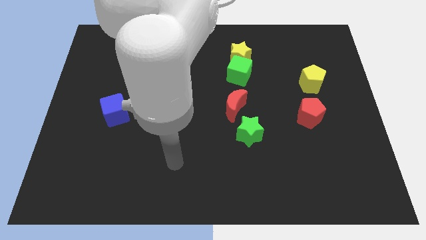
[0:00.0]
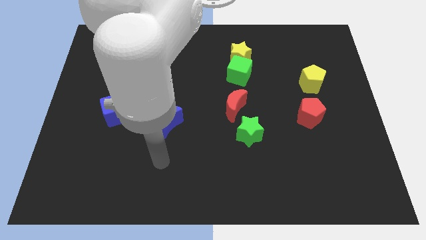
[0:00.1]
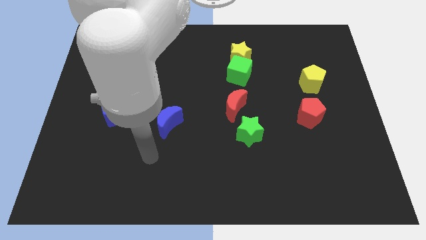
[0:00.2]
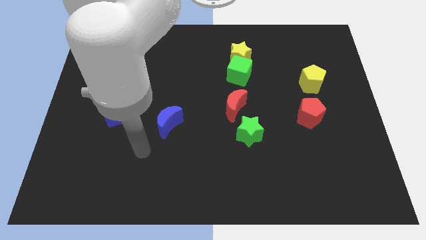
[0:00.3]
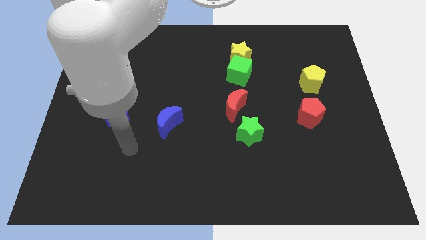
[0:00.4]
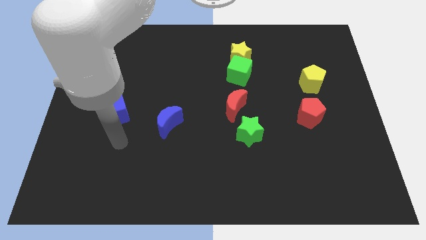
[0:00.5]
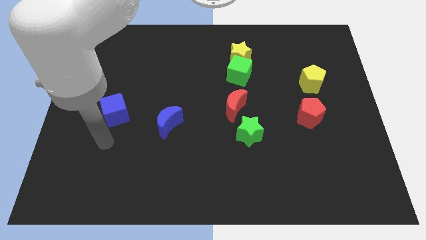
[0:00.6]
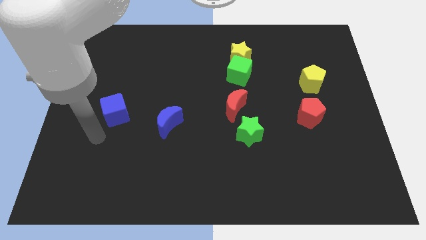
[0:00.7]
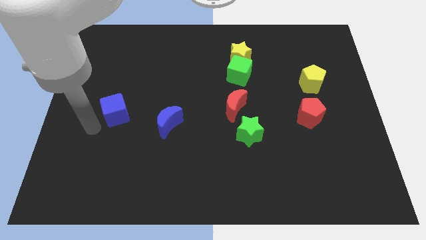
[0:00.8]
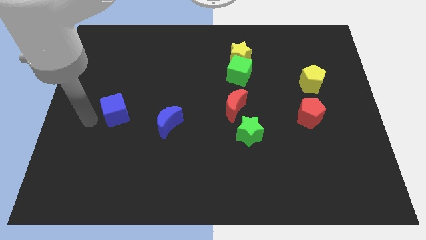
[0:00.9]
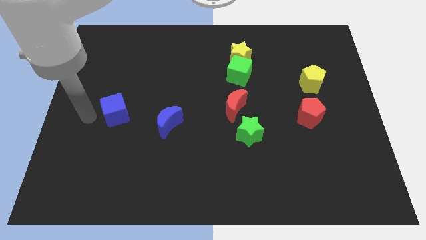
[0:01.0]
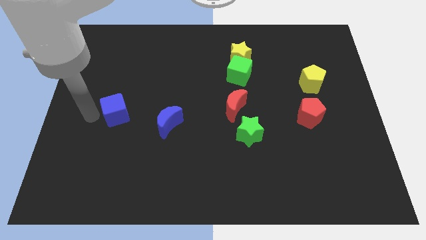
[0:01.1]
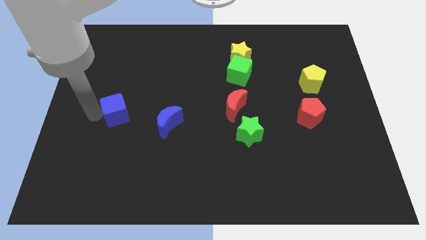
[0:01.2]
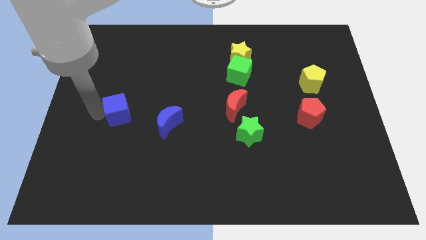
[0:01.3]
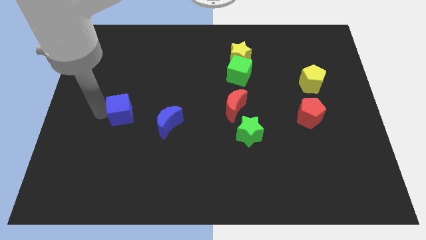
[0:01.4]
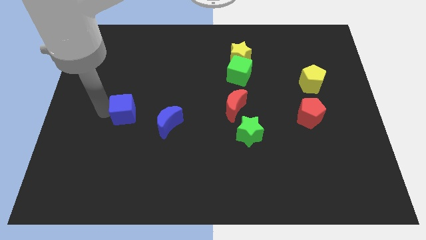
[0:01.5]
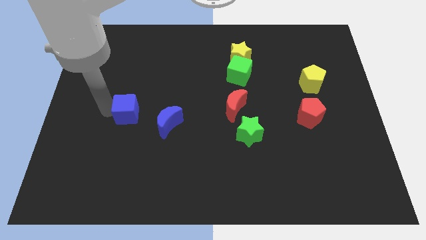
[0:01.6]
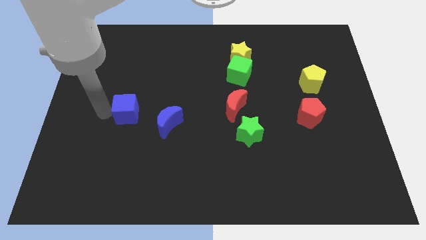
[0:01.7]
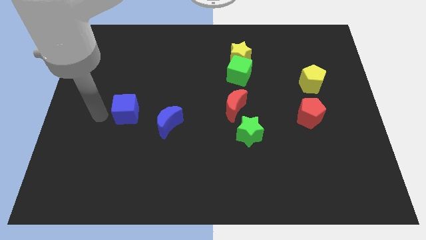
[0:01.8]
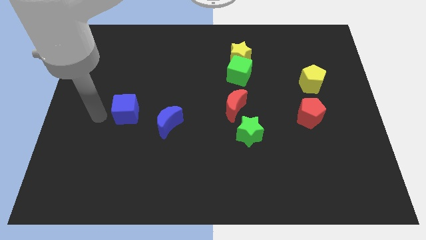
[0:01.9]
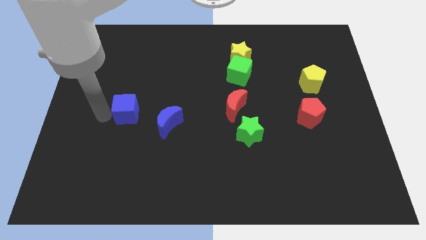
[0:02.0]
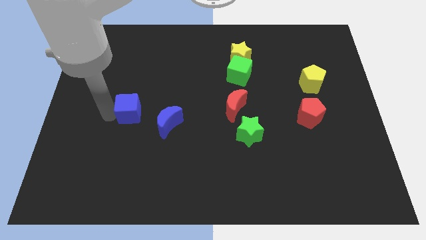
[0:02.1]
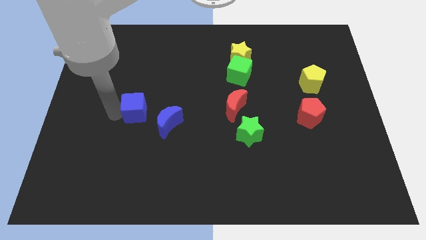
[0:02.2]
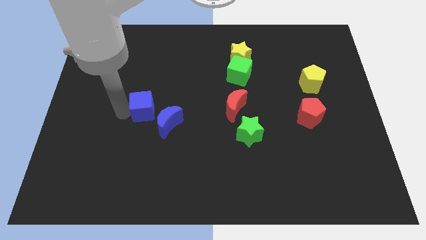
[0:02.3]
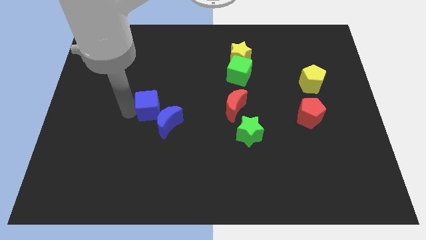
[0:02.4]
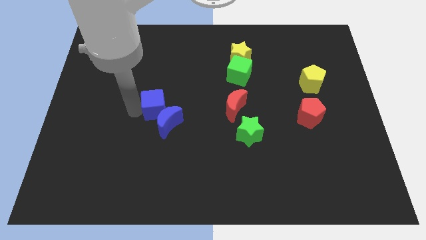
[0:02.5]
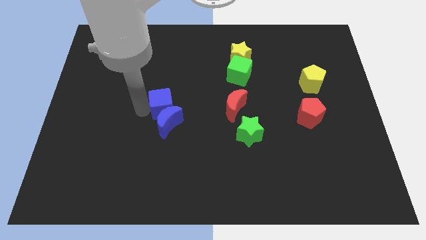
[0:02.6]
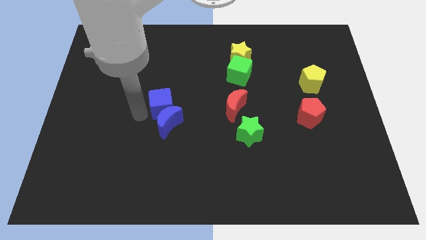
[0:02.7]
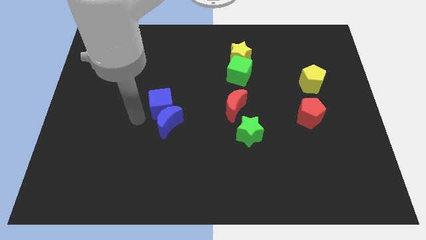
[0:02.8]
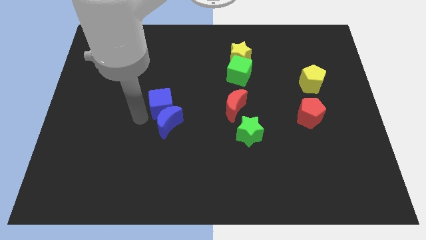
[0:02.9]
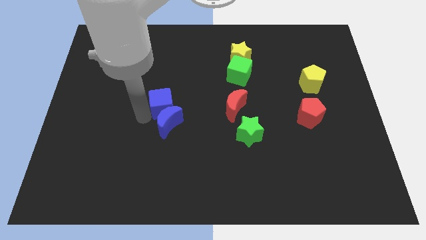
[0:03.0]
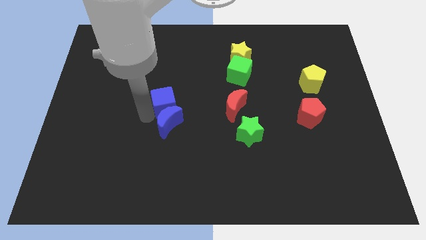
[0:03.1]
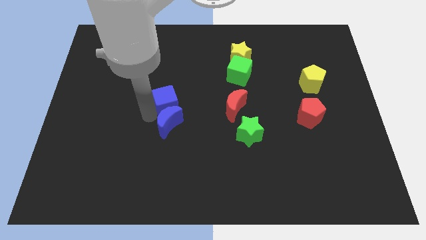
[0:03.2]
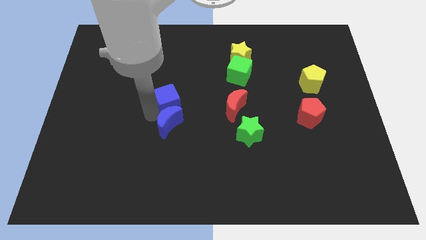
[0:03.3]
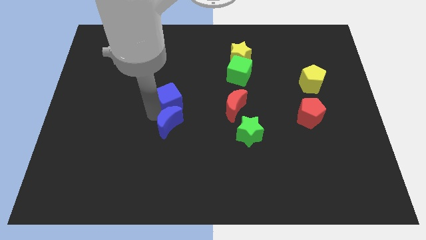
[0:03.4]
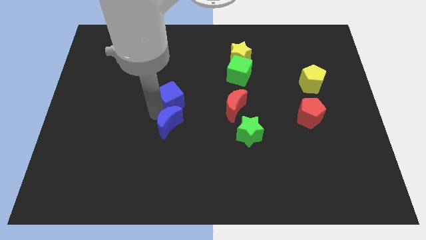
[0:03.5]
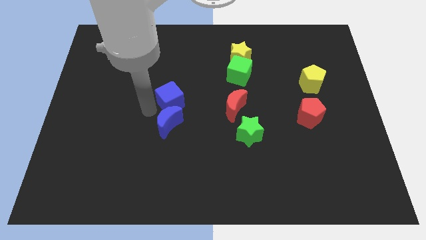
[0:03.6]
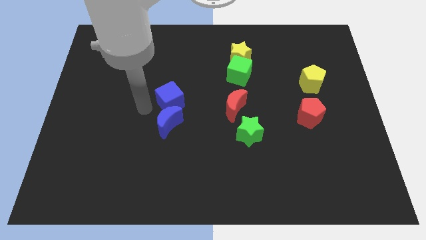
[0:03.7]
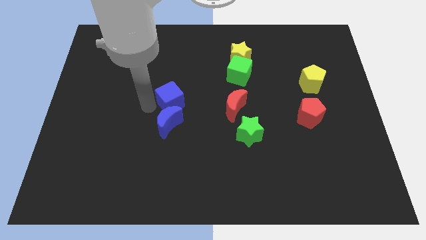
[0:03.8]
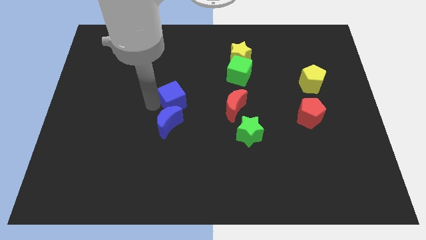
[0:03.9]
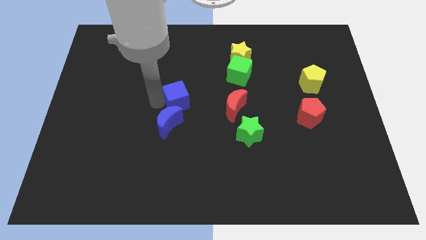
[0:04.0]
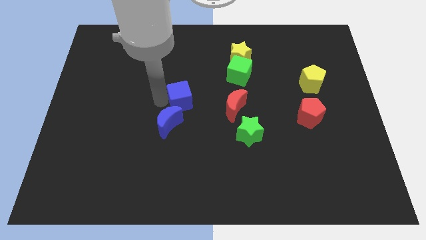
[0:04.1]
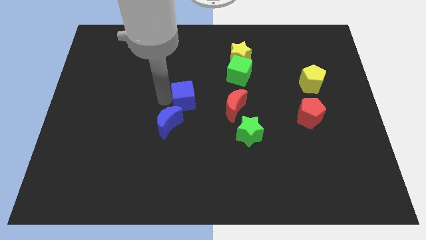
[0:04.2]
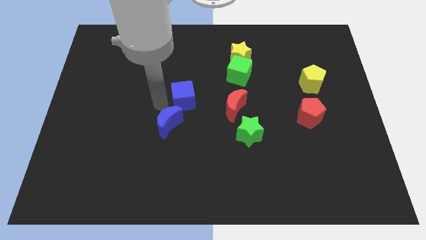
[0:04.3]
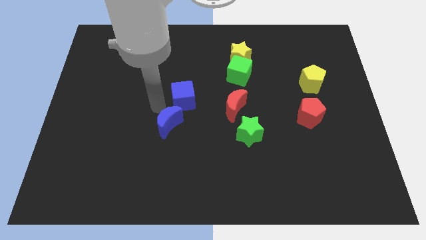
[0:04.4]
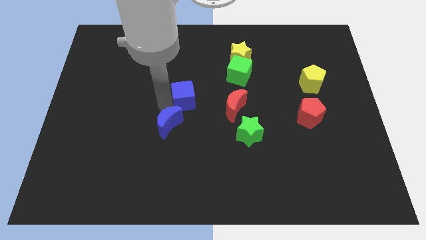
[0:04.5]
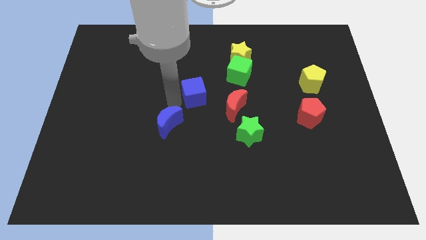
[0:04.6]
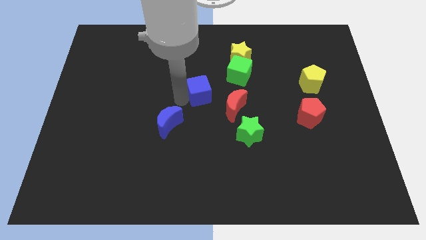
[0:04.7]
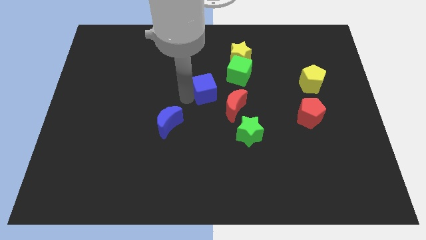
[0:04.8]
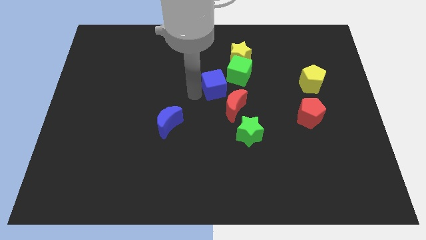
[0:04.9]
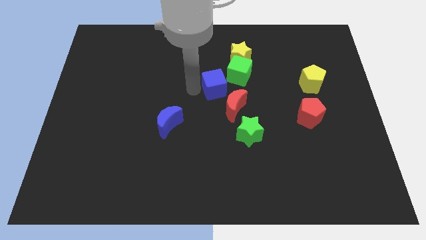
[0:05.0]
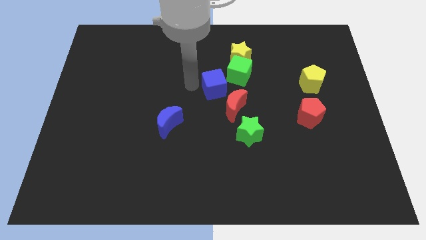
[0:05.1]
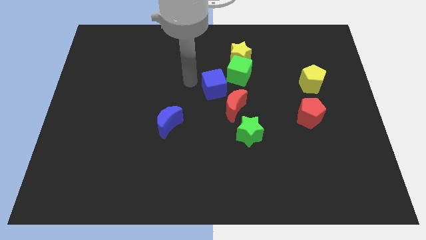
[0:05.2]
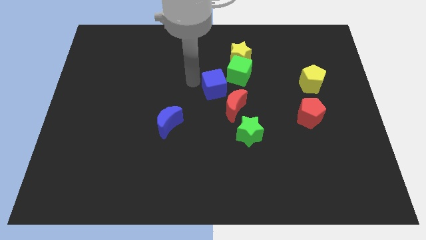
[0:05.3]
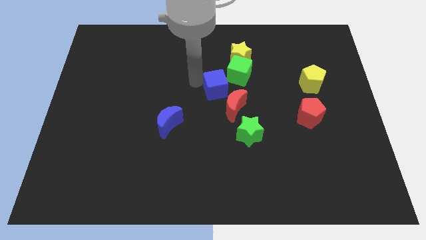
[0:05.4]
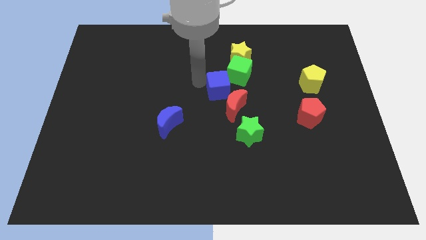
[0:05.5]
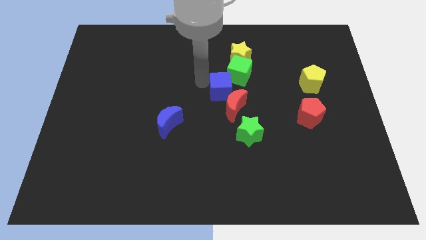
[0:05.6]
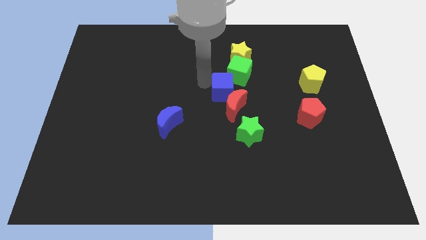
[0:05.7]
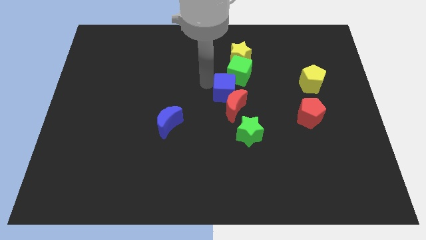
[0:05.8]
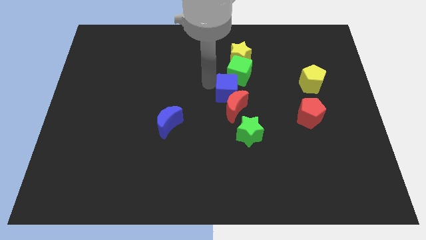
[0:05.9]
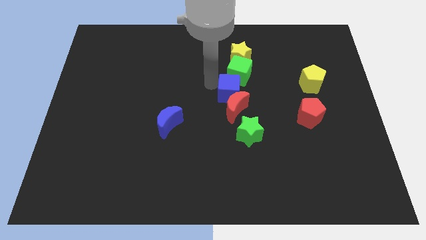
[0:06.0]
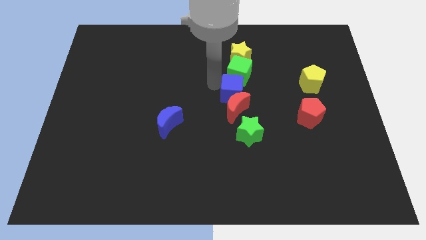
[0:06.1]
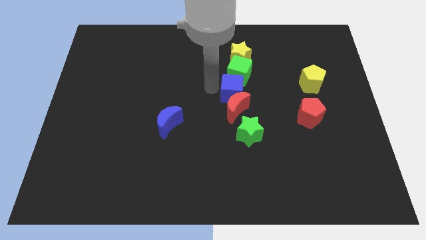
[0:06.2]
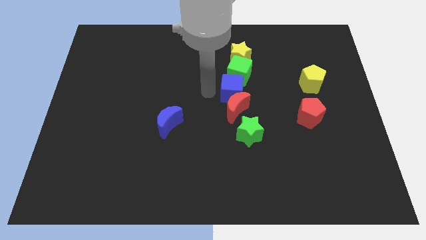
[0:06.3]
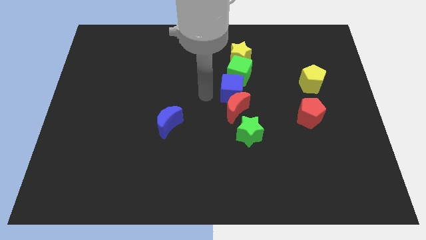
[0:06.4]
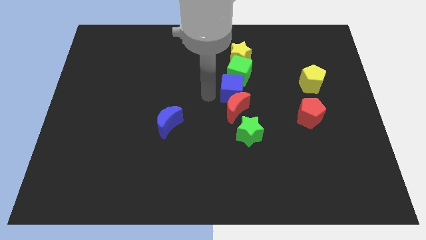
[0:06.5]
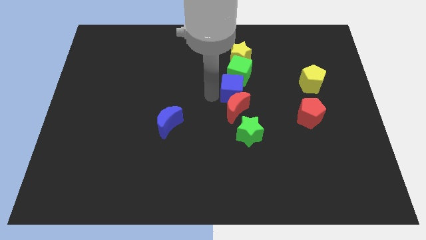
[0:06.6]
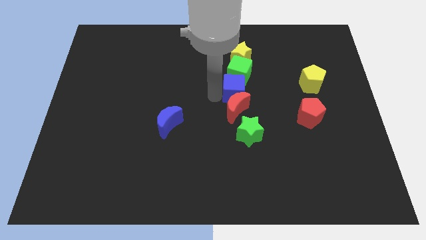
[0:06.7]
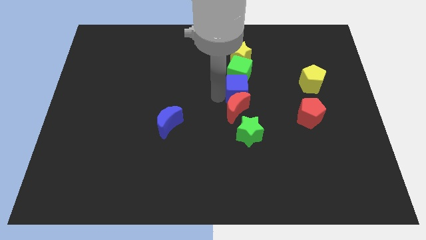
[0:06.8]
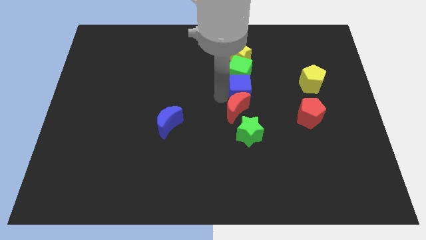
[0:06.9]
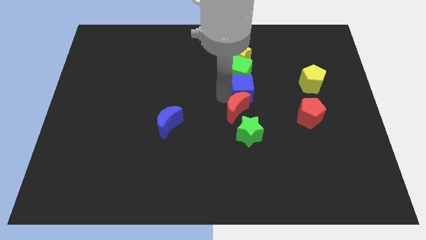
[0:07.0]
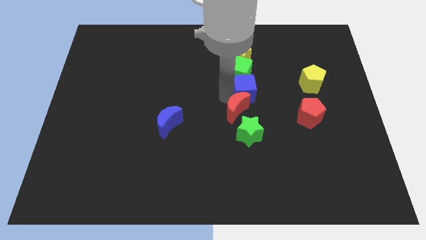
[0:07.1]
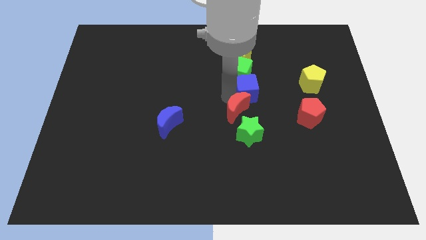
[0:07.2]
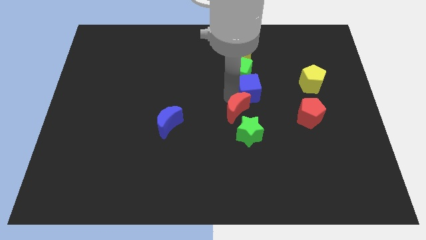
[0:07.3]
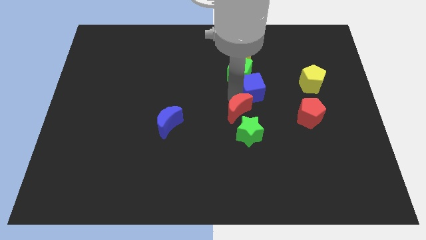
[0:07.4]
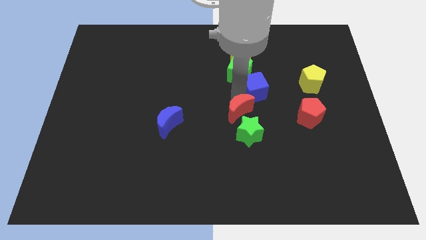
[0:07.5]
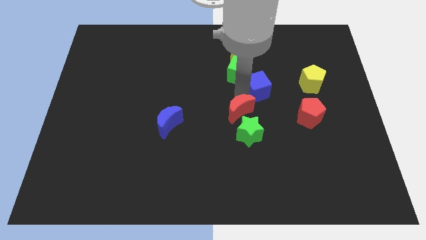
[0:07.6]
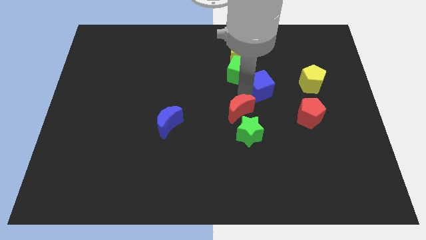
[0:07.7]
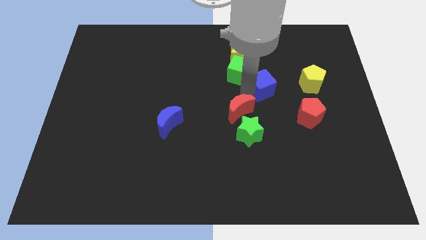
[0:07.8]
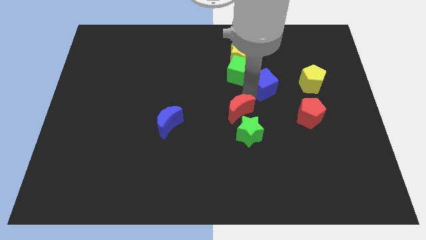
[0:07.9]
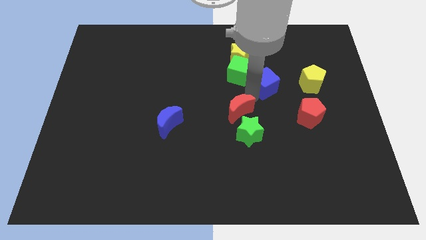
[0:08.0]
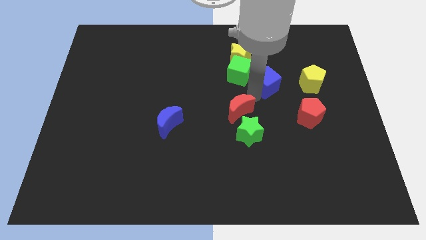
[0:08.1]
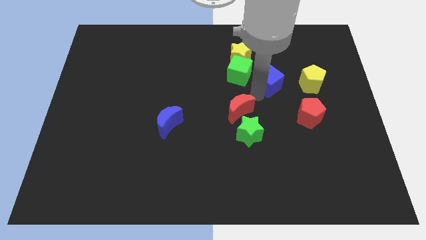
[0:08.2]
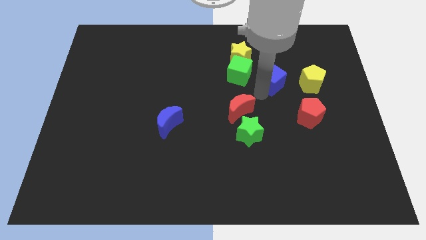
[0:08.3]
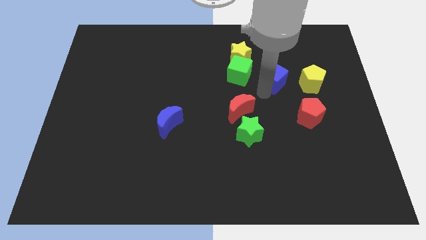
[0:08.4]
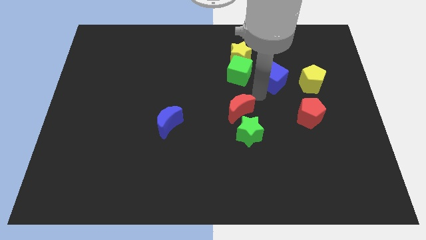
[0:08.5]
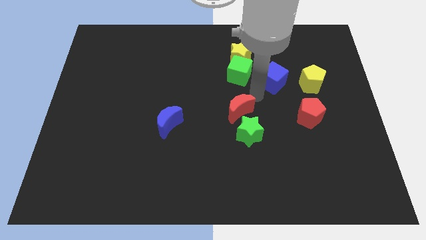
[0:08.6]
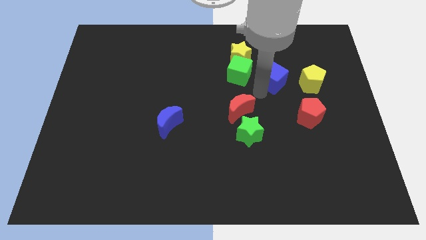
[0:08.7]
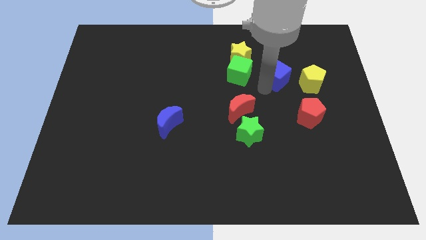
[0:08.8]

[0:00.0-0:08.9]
slide the blue cube diagonally up and to the left of the yellow pentagon
